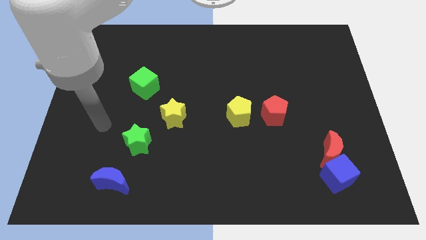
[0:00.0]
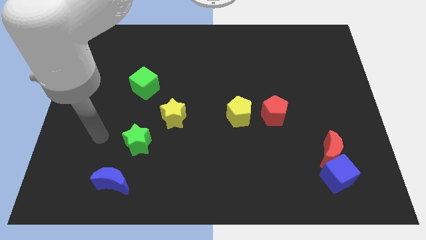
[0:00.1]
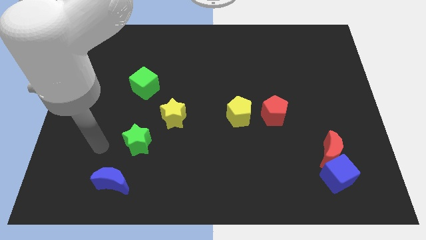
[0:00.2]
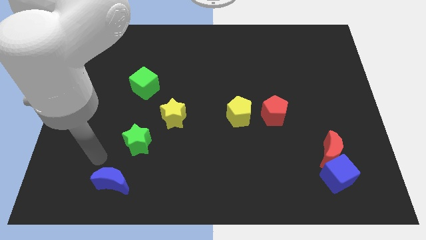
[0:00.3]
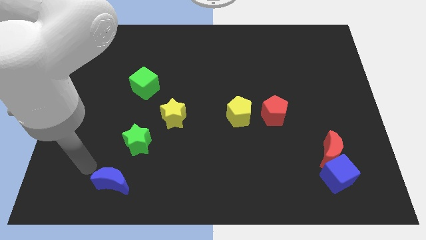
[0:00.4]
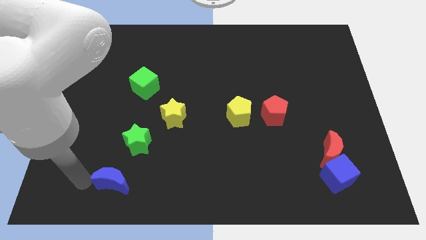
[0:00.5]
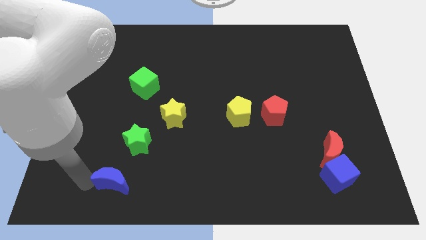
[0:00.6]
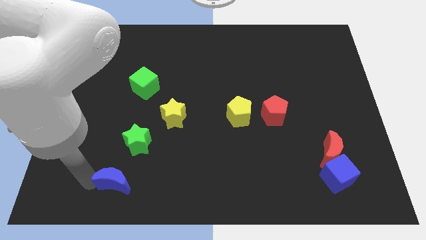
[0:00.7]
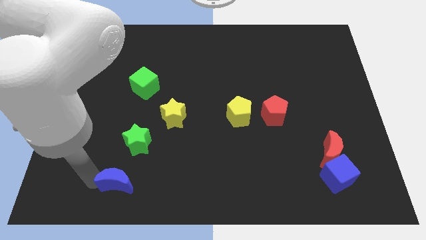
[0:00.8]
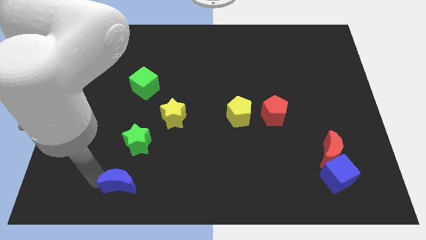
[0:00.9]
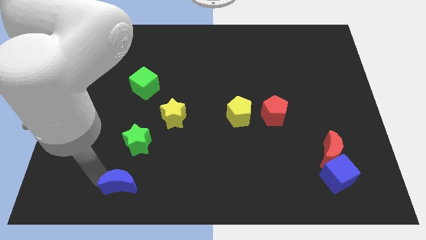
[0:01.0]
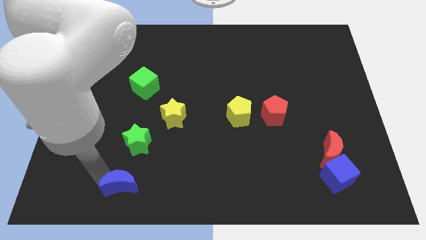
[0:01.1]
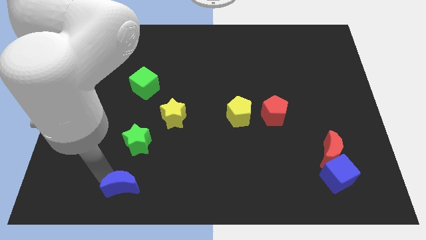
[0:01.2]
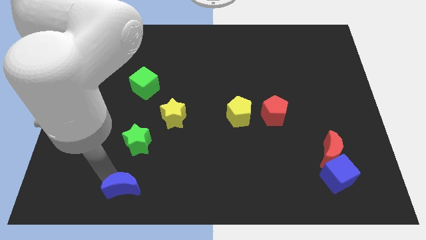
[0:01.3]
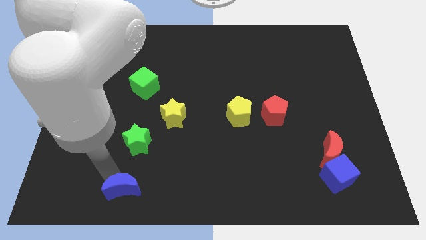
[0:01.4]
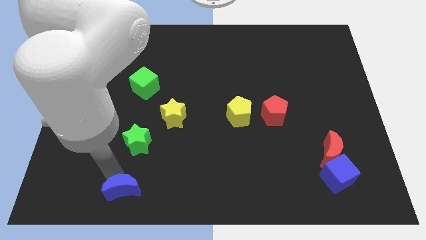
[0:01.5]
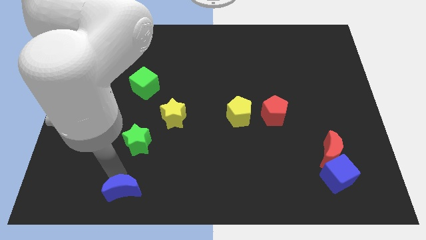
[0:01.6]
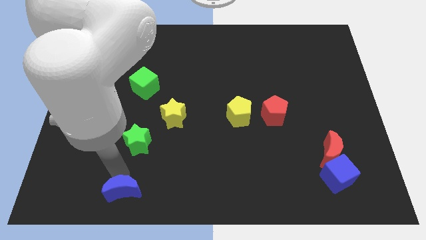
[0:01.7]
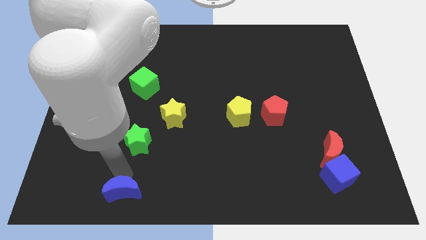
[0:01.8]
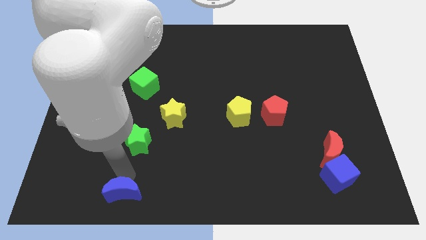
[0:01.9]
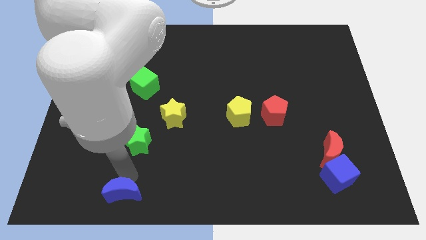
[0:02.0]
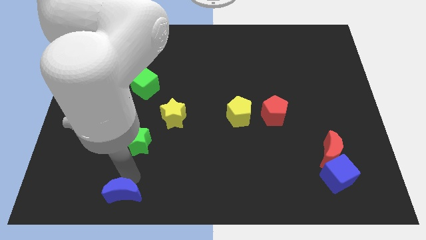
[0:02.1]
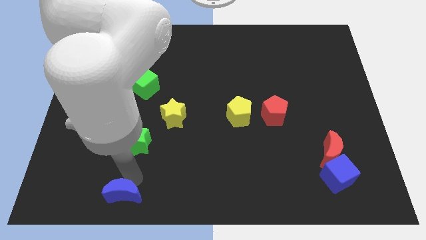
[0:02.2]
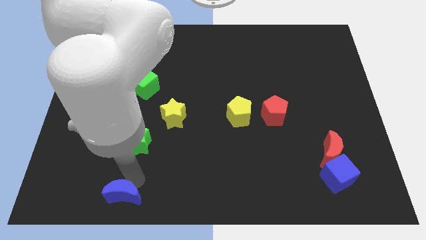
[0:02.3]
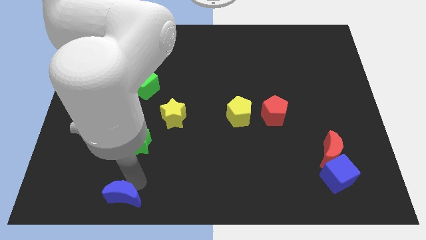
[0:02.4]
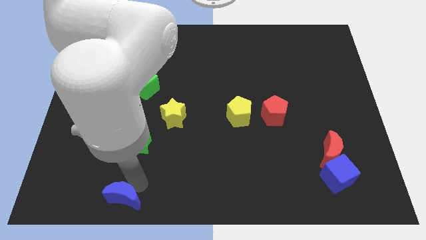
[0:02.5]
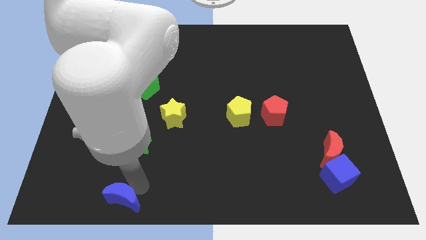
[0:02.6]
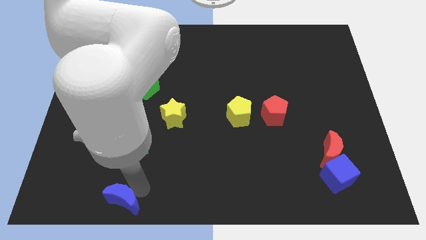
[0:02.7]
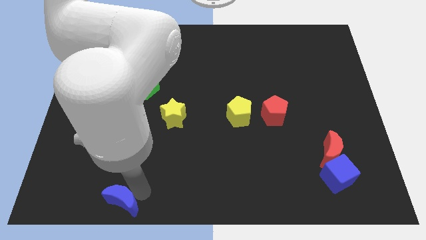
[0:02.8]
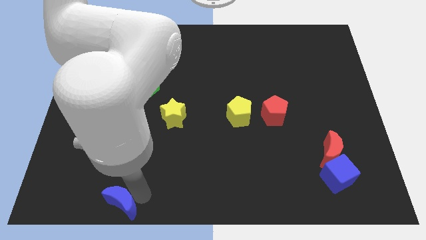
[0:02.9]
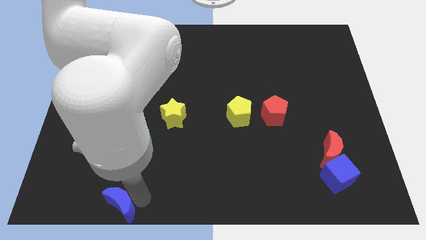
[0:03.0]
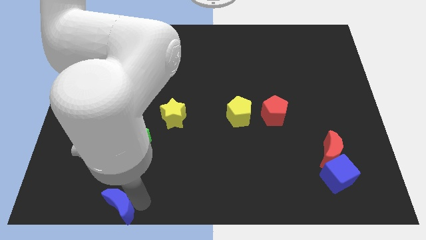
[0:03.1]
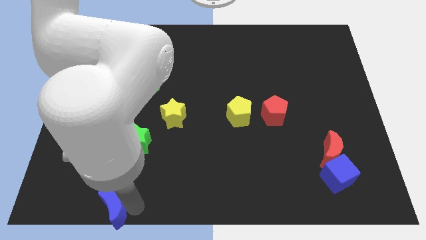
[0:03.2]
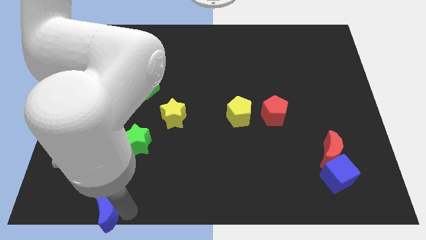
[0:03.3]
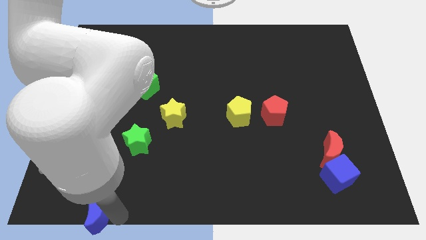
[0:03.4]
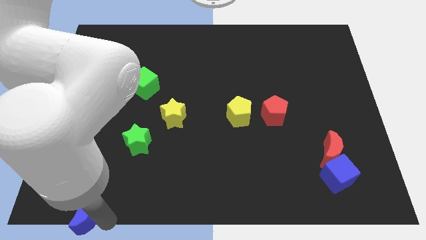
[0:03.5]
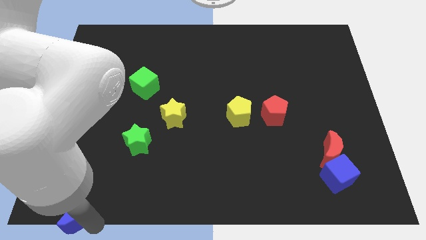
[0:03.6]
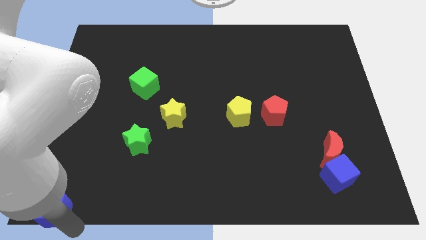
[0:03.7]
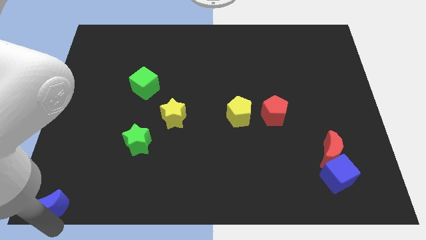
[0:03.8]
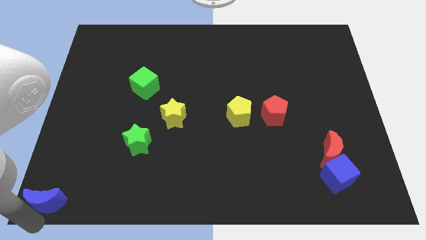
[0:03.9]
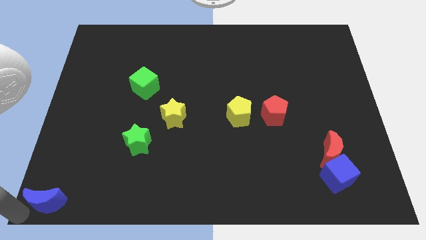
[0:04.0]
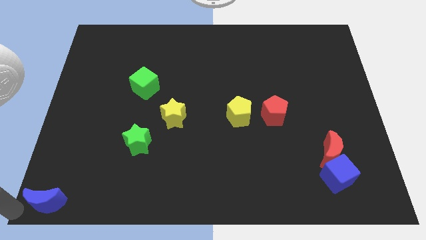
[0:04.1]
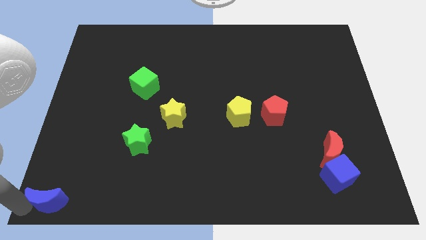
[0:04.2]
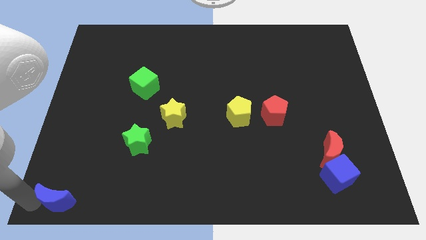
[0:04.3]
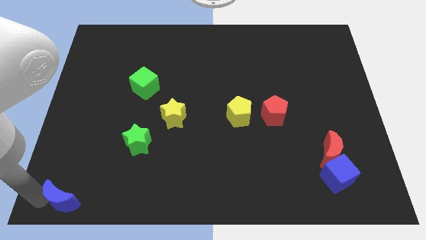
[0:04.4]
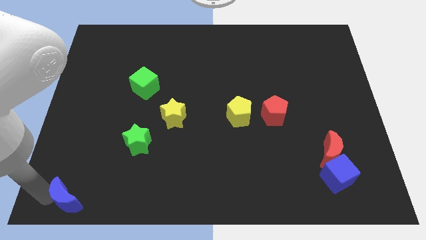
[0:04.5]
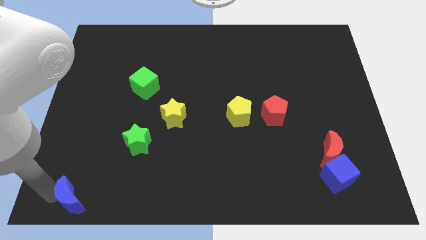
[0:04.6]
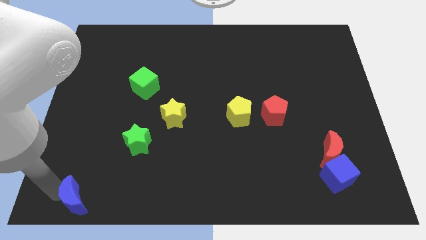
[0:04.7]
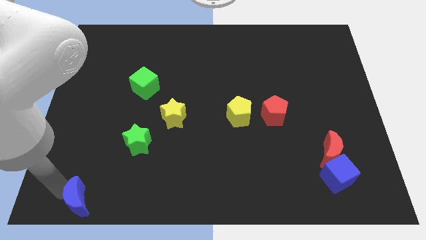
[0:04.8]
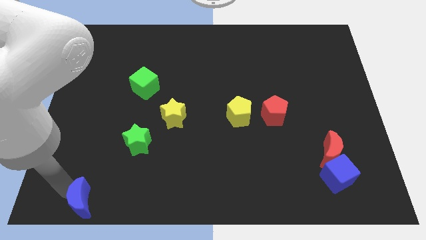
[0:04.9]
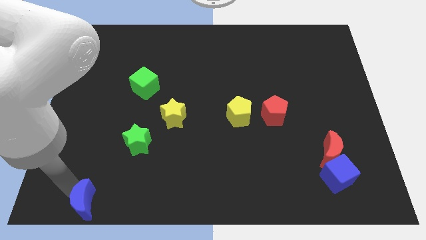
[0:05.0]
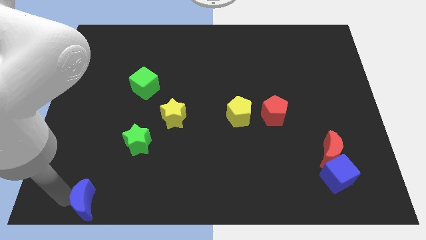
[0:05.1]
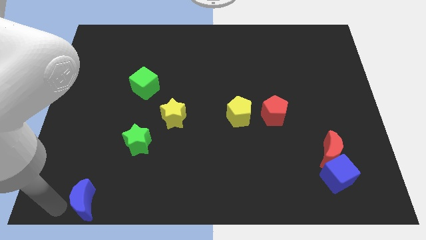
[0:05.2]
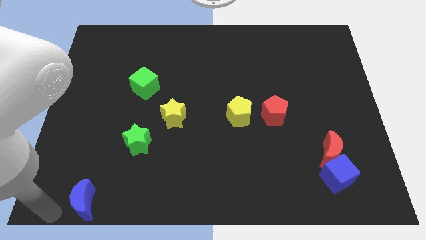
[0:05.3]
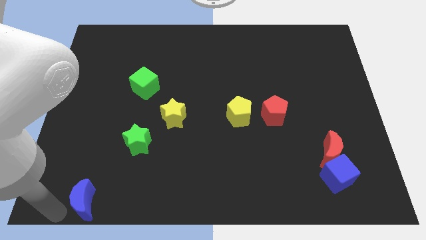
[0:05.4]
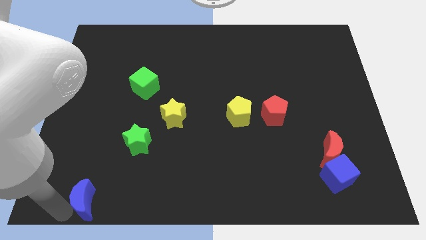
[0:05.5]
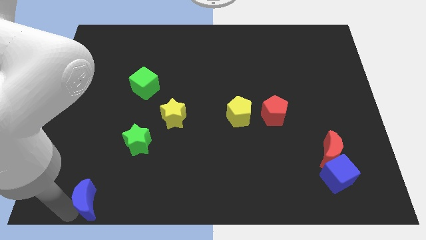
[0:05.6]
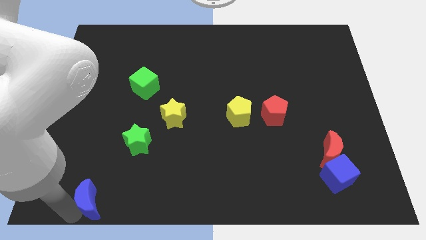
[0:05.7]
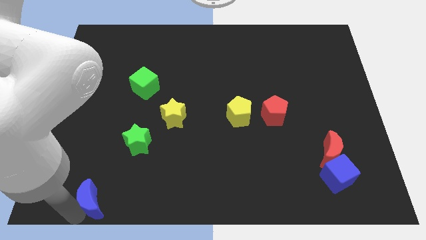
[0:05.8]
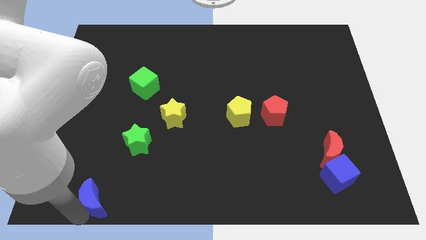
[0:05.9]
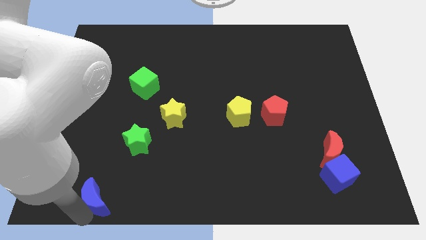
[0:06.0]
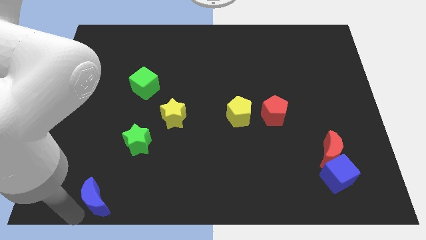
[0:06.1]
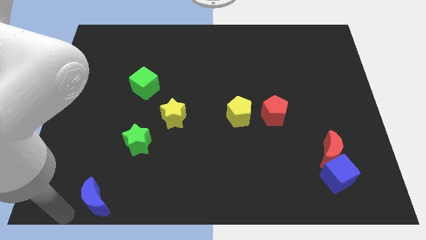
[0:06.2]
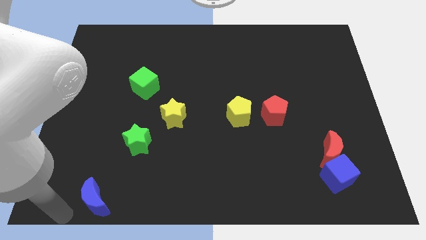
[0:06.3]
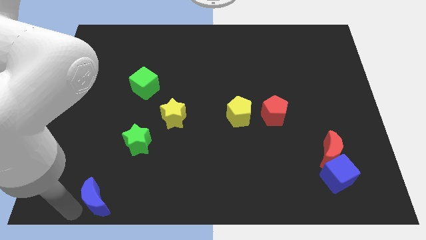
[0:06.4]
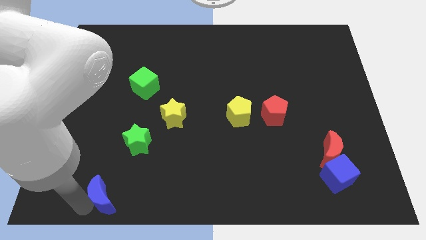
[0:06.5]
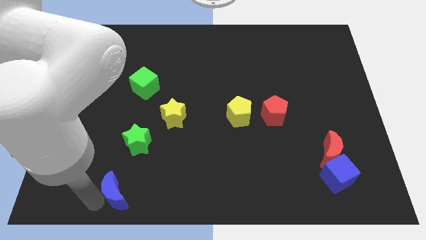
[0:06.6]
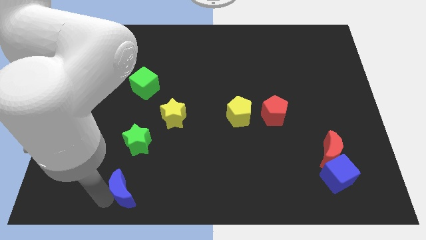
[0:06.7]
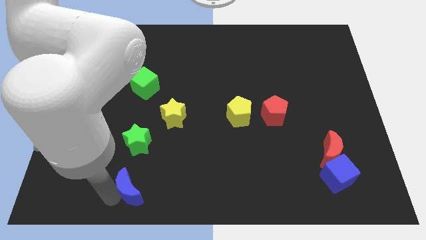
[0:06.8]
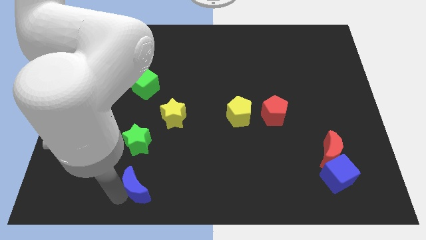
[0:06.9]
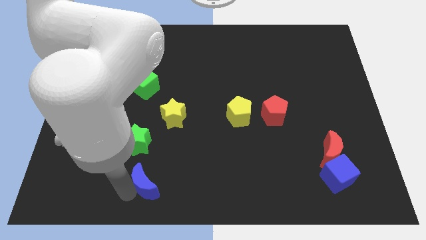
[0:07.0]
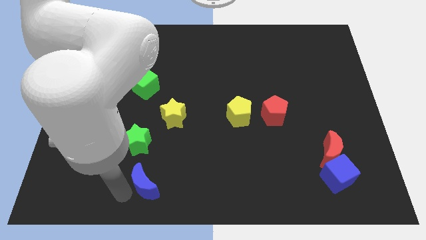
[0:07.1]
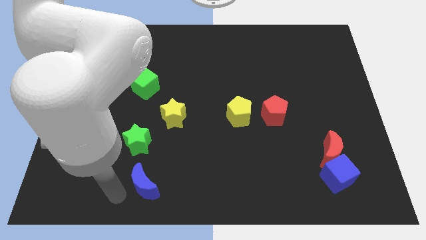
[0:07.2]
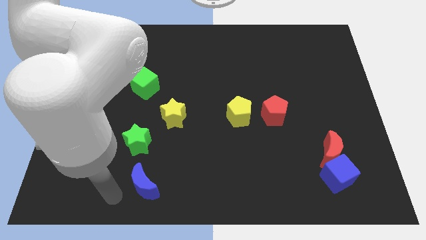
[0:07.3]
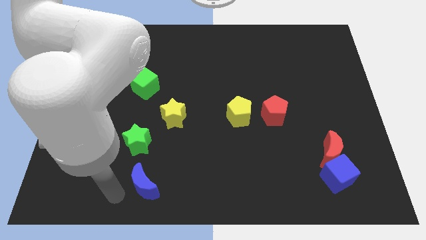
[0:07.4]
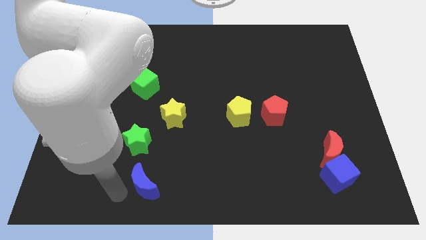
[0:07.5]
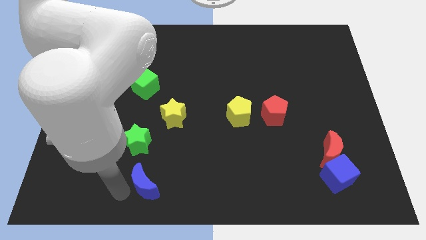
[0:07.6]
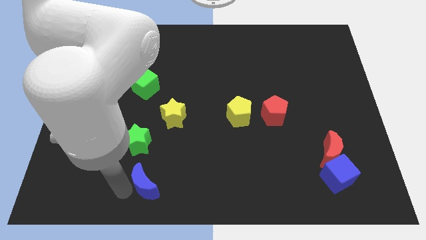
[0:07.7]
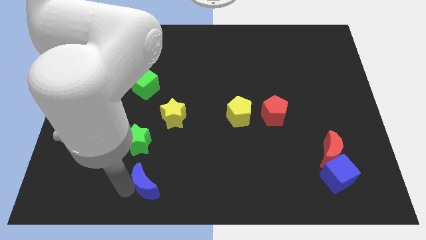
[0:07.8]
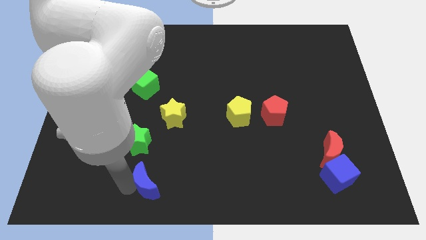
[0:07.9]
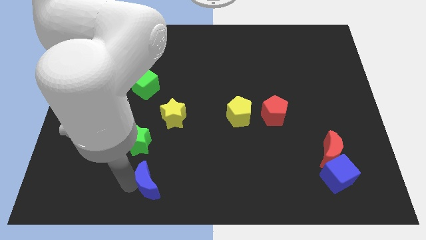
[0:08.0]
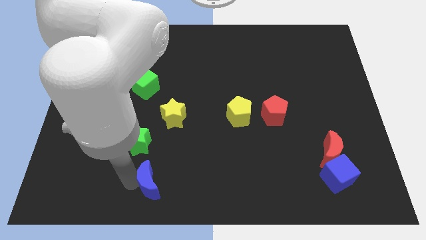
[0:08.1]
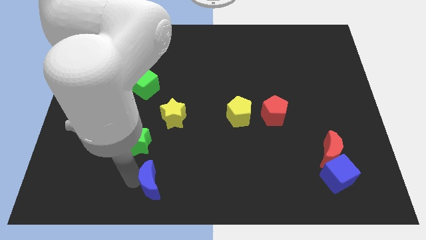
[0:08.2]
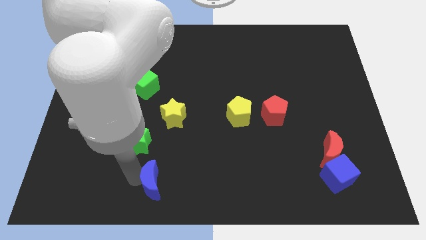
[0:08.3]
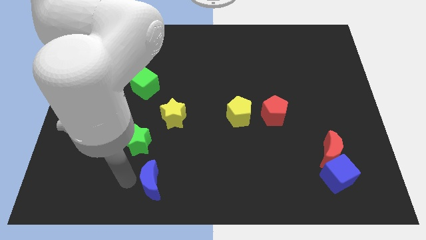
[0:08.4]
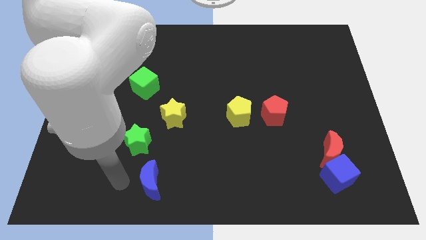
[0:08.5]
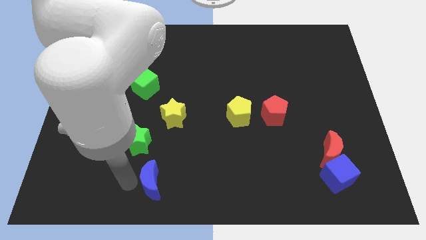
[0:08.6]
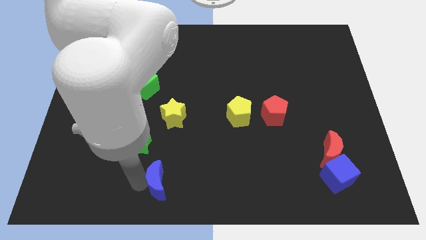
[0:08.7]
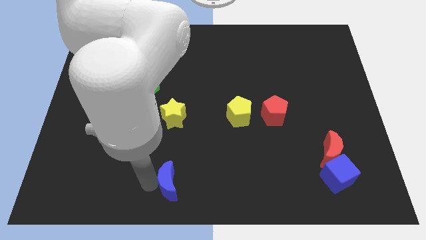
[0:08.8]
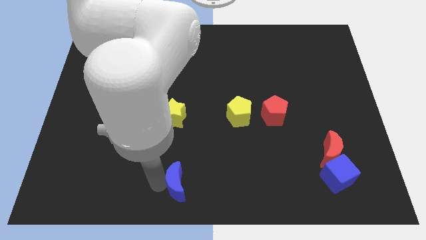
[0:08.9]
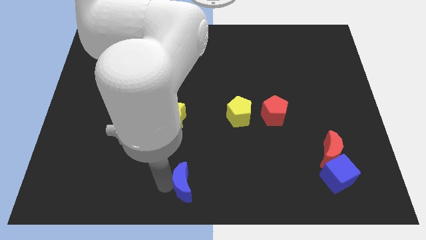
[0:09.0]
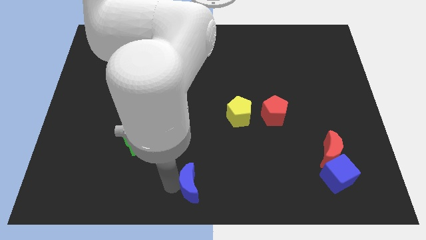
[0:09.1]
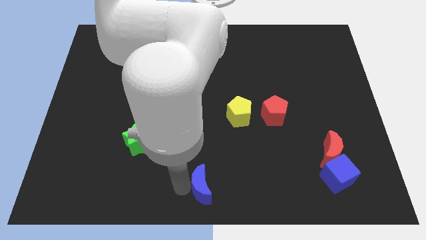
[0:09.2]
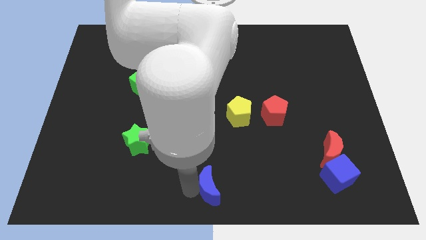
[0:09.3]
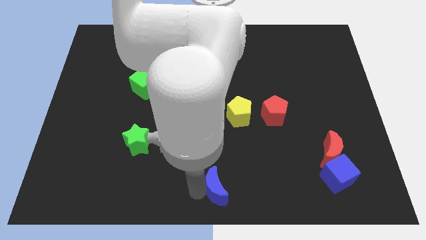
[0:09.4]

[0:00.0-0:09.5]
move the blue moon right
